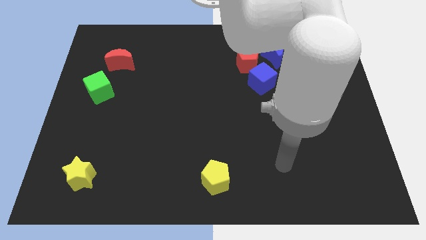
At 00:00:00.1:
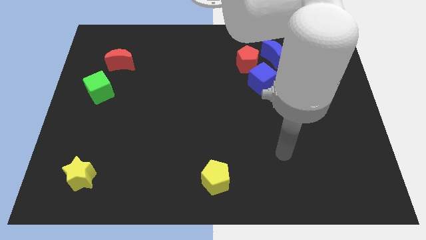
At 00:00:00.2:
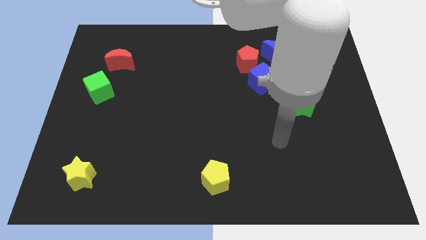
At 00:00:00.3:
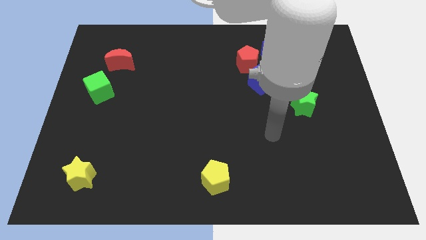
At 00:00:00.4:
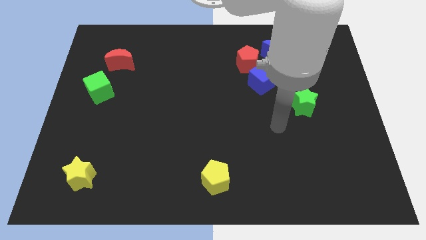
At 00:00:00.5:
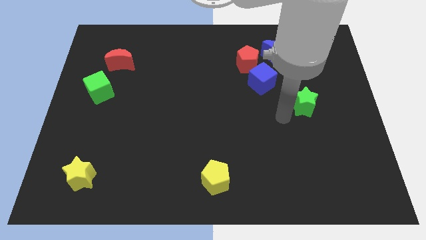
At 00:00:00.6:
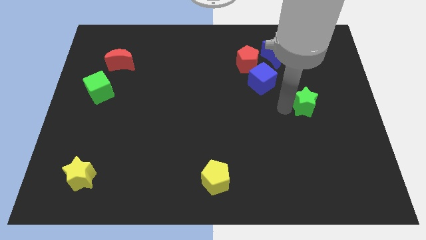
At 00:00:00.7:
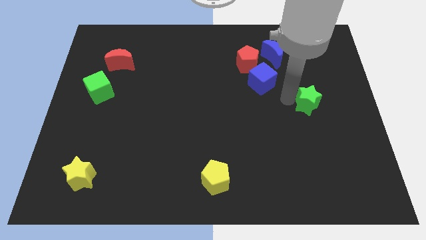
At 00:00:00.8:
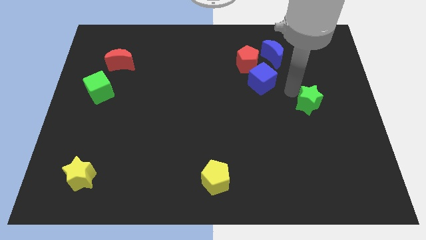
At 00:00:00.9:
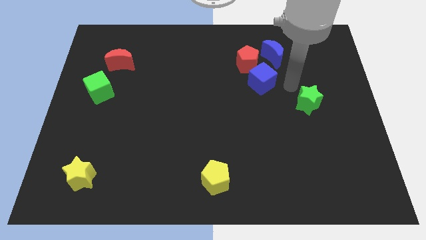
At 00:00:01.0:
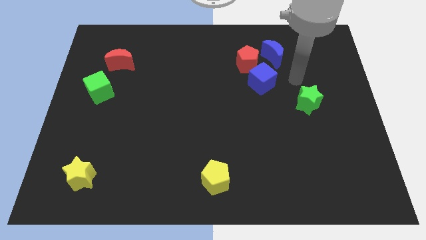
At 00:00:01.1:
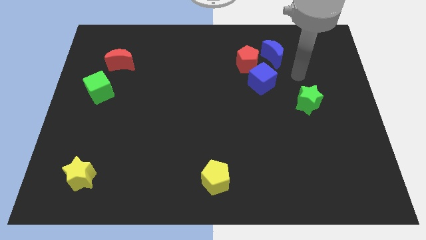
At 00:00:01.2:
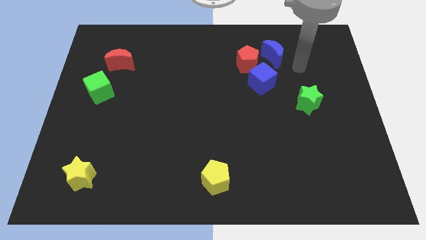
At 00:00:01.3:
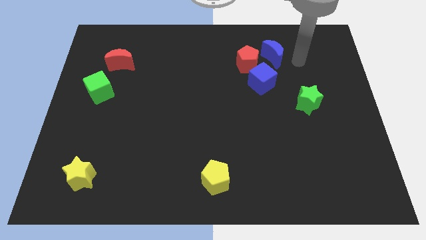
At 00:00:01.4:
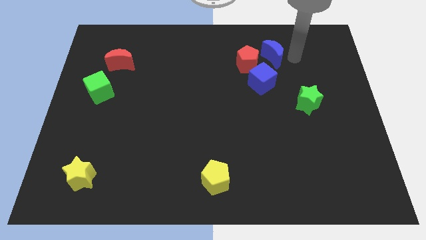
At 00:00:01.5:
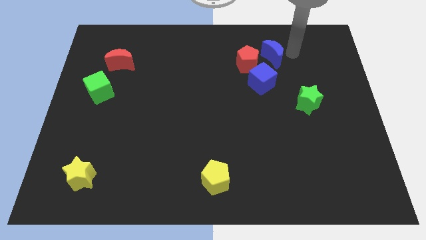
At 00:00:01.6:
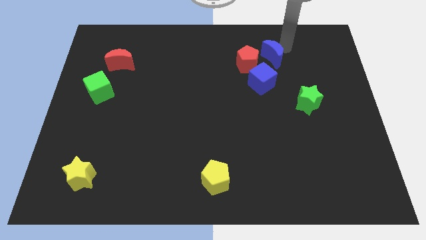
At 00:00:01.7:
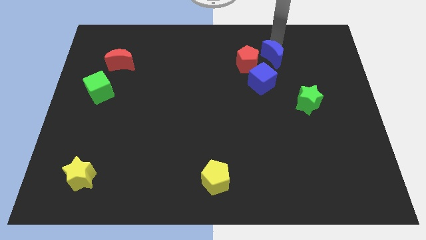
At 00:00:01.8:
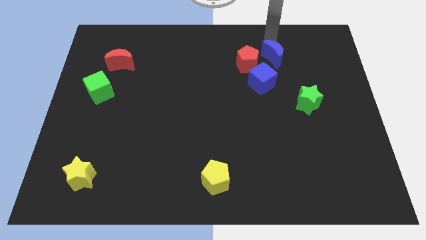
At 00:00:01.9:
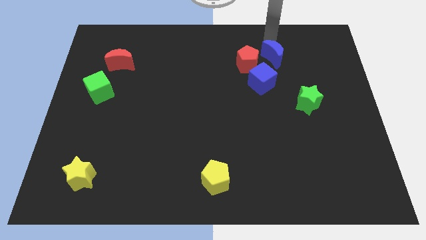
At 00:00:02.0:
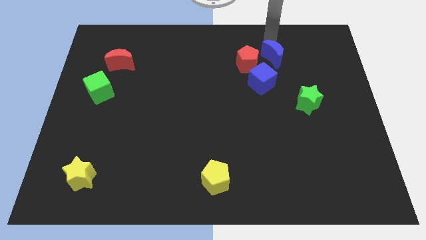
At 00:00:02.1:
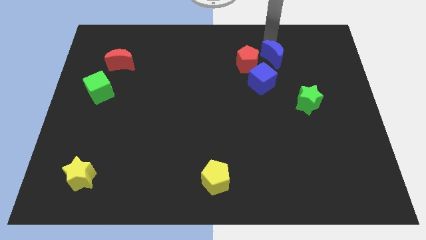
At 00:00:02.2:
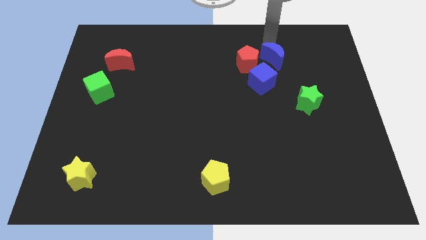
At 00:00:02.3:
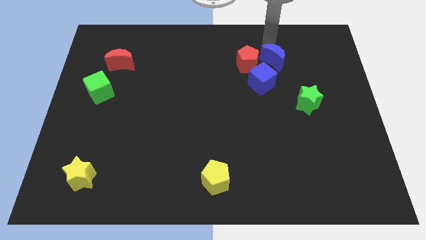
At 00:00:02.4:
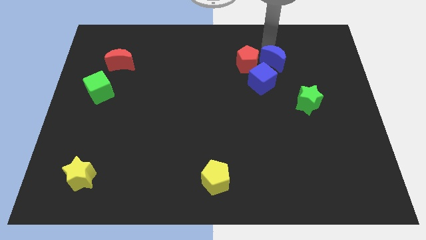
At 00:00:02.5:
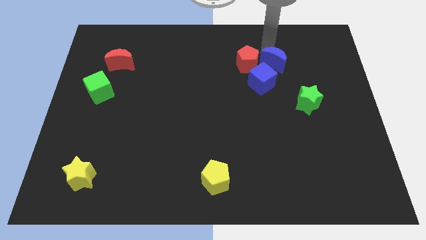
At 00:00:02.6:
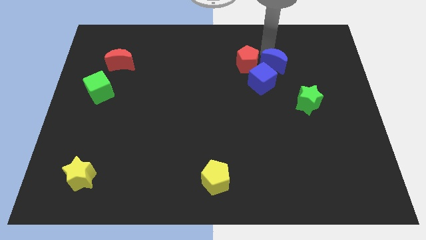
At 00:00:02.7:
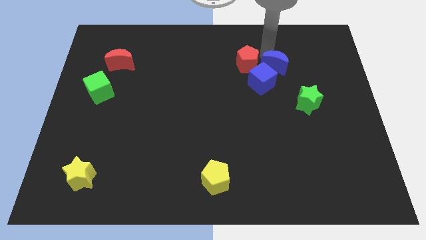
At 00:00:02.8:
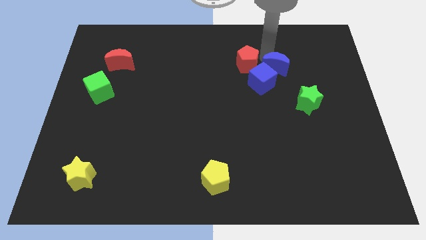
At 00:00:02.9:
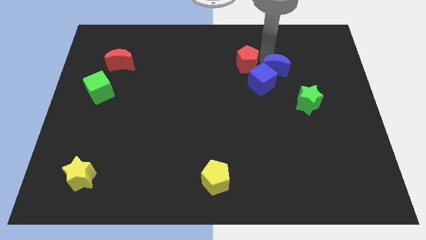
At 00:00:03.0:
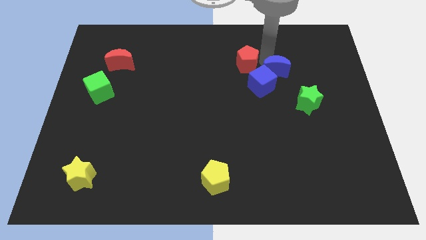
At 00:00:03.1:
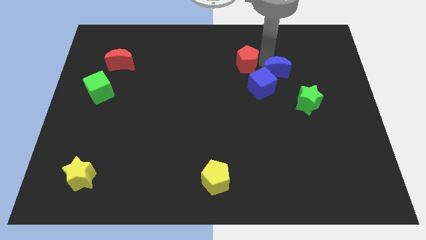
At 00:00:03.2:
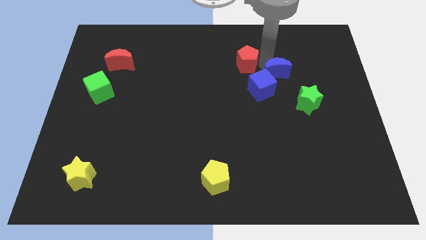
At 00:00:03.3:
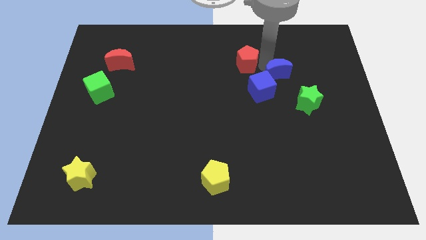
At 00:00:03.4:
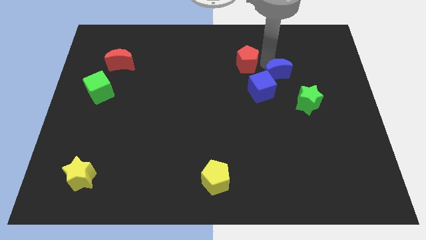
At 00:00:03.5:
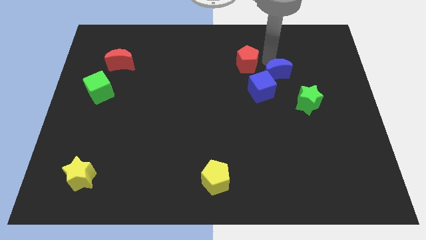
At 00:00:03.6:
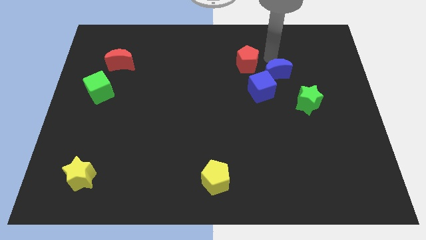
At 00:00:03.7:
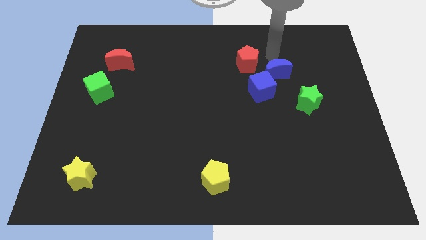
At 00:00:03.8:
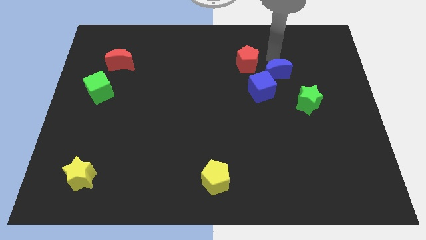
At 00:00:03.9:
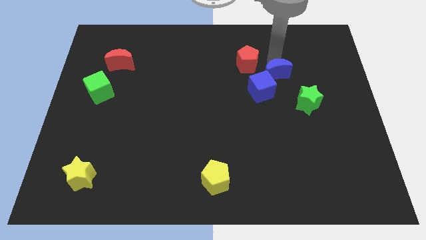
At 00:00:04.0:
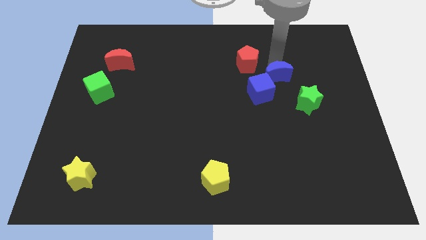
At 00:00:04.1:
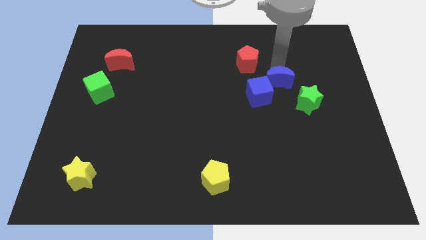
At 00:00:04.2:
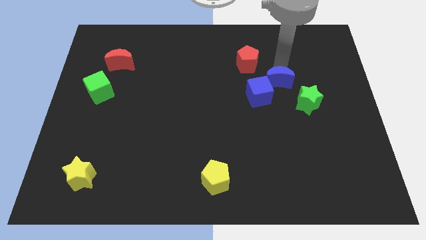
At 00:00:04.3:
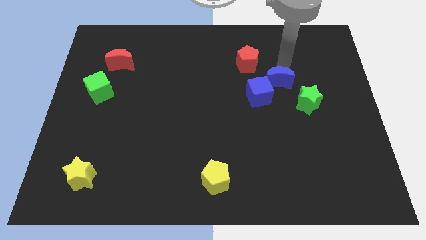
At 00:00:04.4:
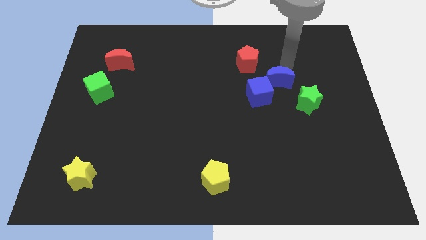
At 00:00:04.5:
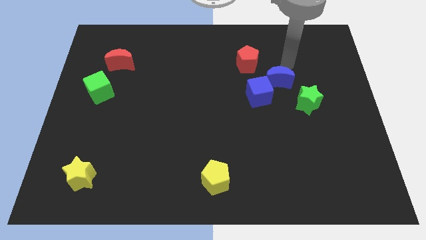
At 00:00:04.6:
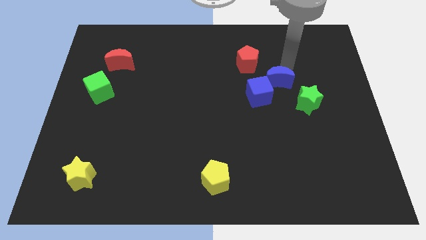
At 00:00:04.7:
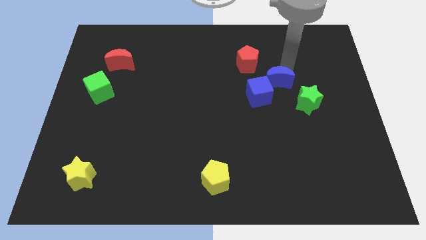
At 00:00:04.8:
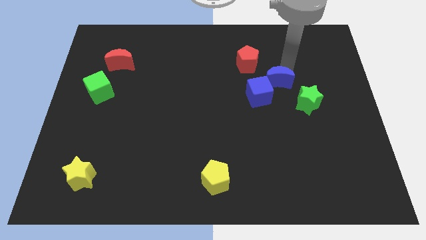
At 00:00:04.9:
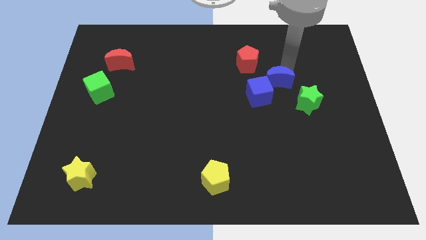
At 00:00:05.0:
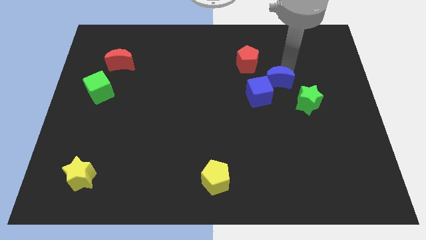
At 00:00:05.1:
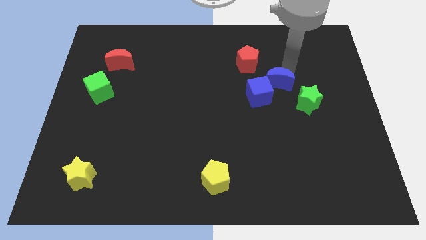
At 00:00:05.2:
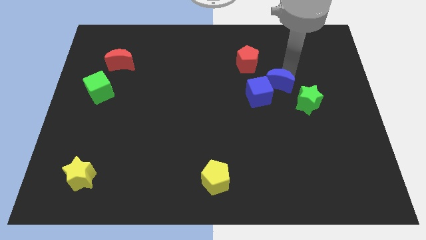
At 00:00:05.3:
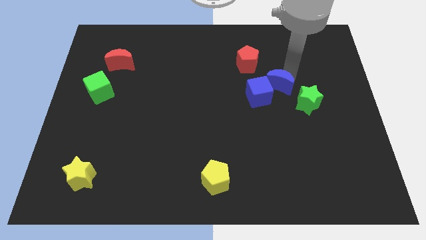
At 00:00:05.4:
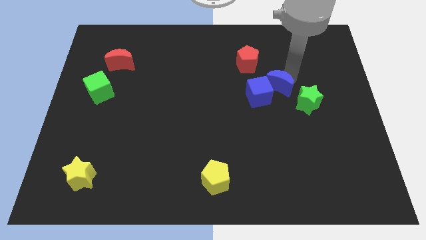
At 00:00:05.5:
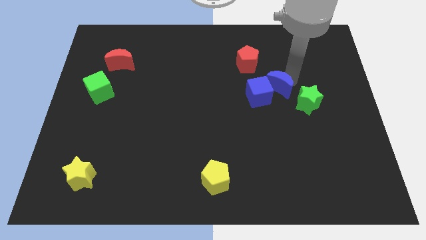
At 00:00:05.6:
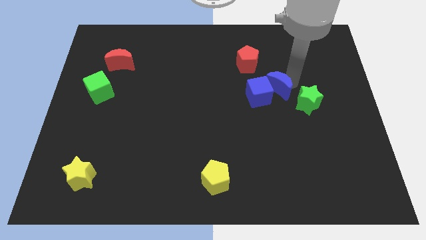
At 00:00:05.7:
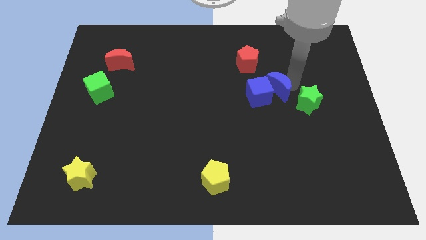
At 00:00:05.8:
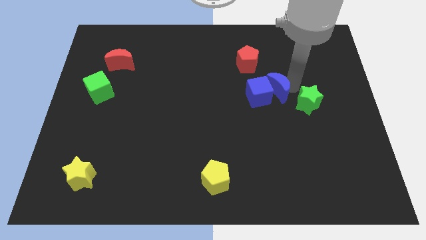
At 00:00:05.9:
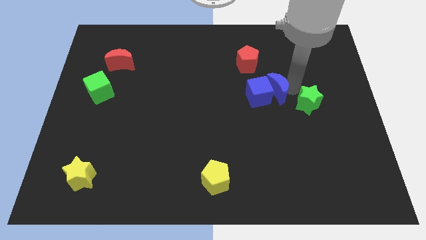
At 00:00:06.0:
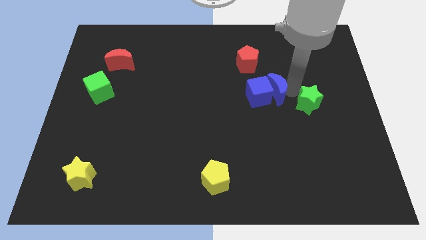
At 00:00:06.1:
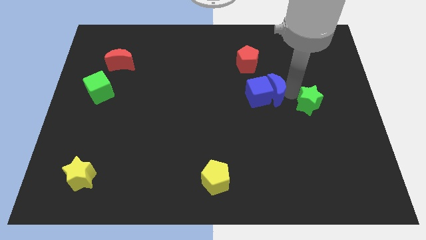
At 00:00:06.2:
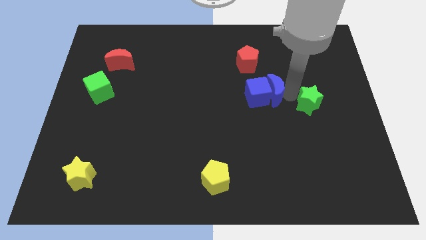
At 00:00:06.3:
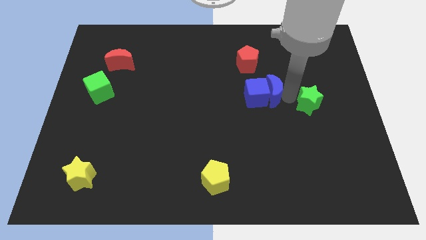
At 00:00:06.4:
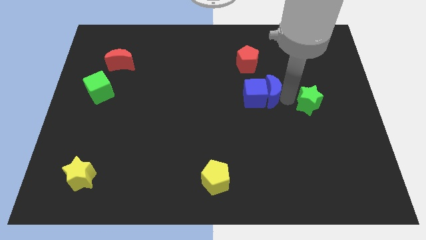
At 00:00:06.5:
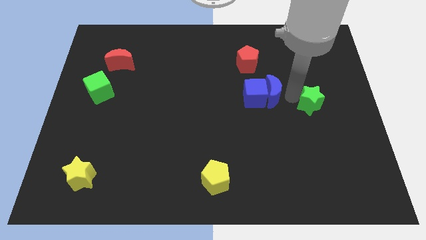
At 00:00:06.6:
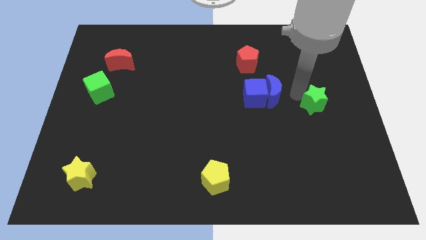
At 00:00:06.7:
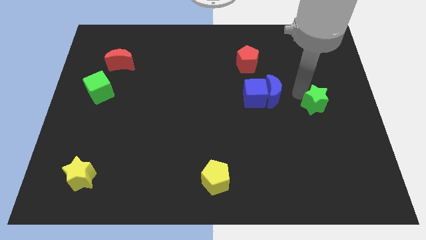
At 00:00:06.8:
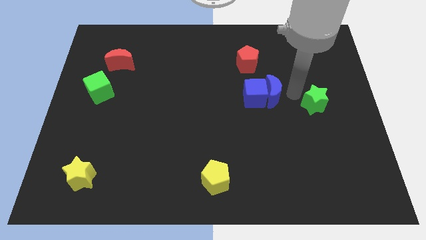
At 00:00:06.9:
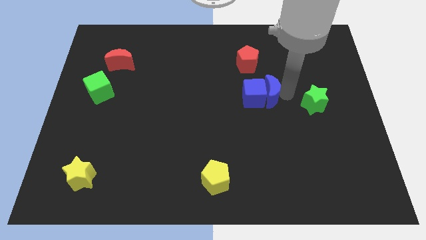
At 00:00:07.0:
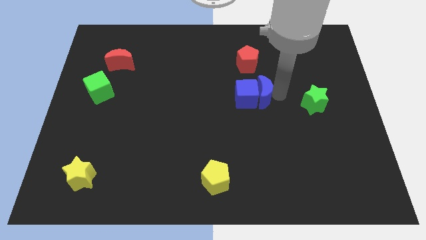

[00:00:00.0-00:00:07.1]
put the blue moon to the middle

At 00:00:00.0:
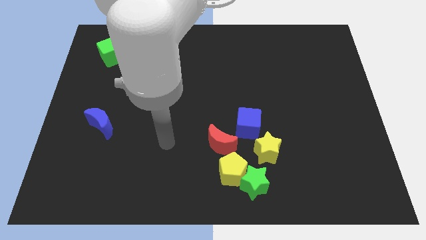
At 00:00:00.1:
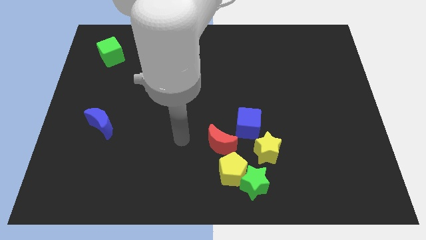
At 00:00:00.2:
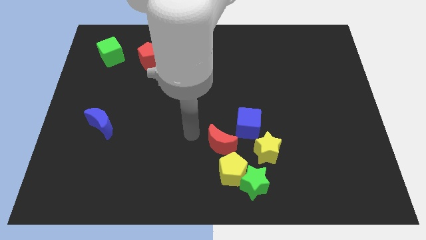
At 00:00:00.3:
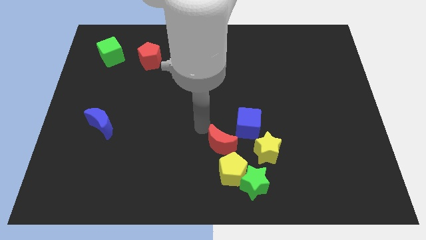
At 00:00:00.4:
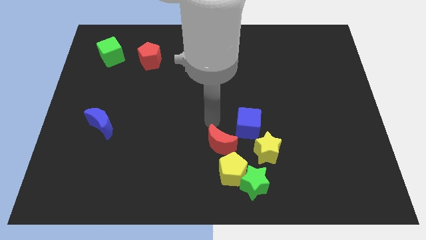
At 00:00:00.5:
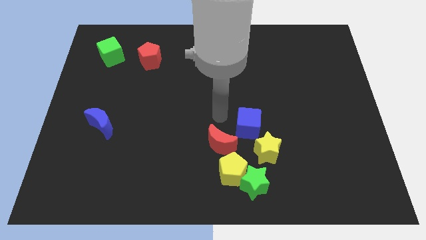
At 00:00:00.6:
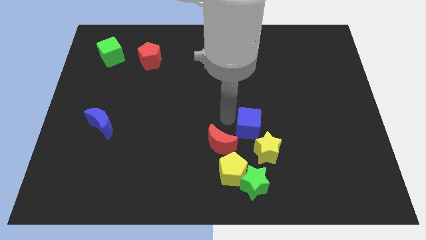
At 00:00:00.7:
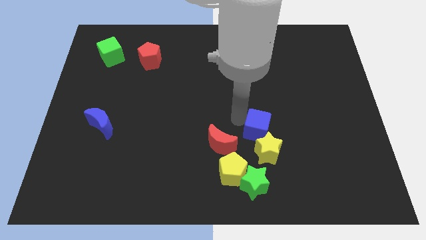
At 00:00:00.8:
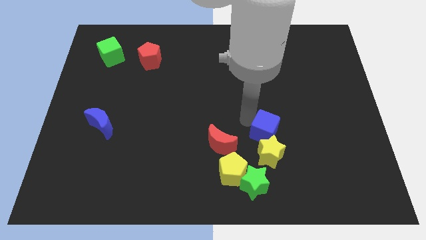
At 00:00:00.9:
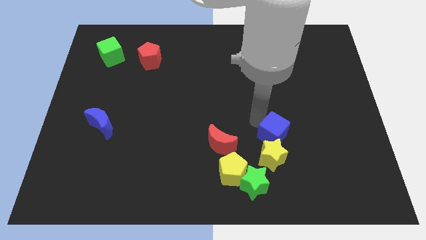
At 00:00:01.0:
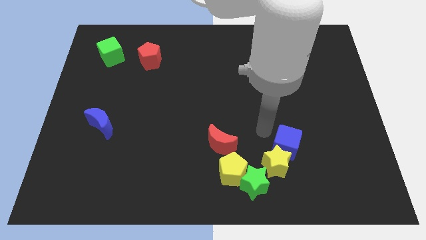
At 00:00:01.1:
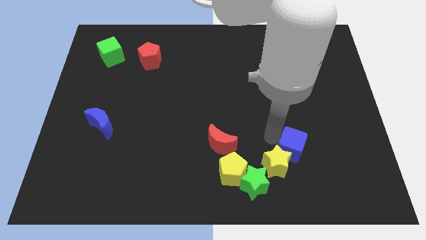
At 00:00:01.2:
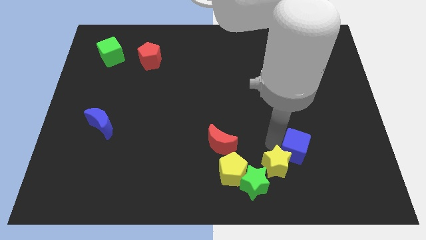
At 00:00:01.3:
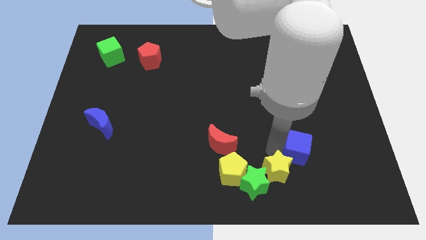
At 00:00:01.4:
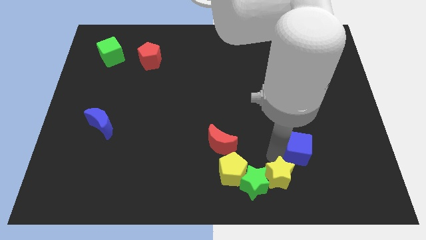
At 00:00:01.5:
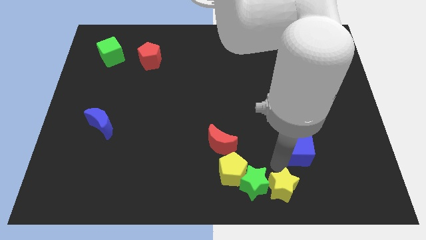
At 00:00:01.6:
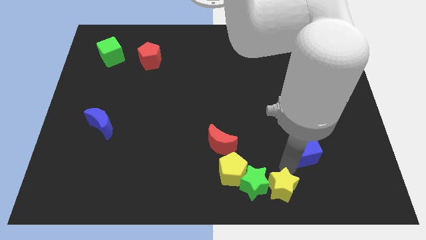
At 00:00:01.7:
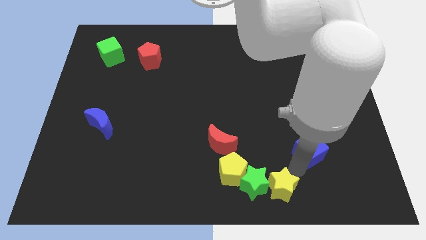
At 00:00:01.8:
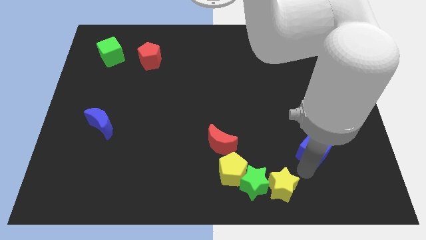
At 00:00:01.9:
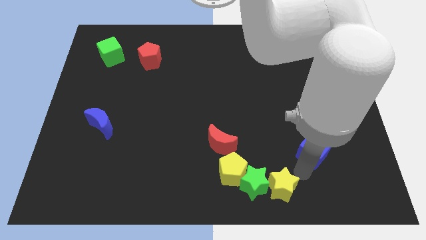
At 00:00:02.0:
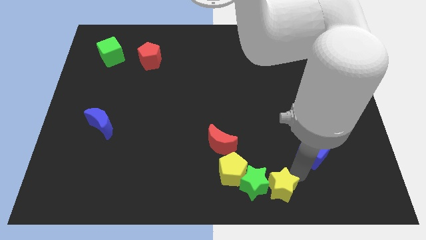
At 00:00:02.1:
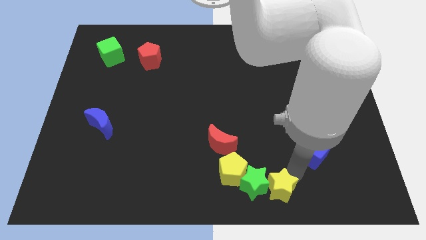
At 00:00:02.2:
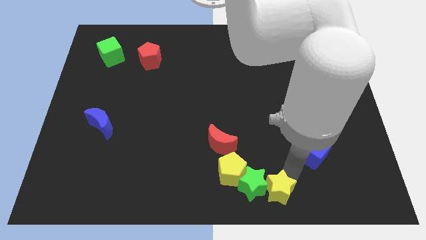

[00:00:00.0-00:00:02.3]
move the yellow star to the bottom side
